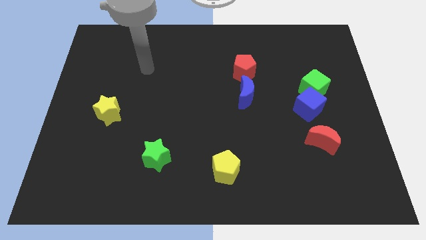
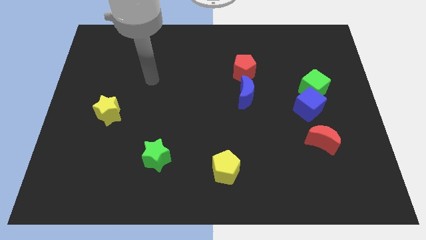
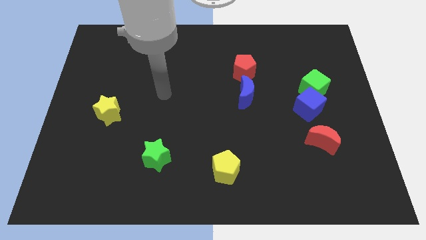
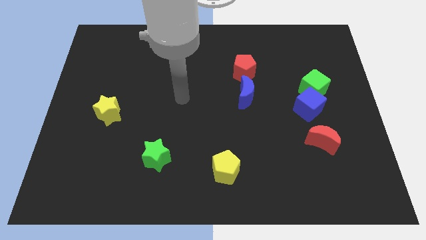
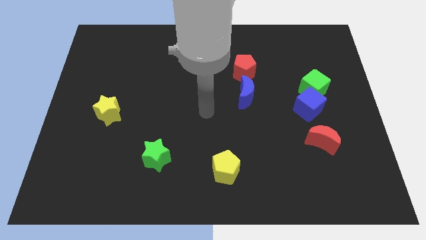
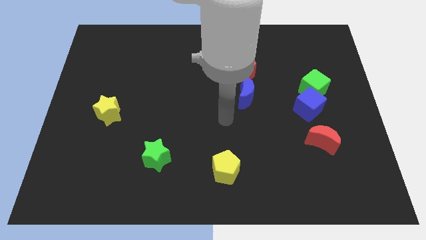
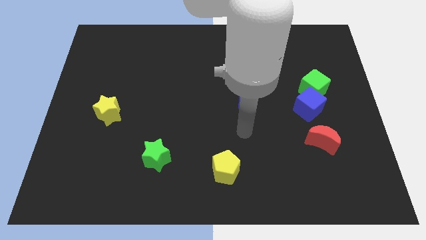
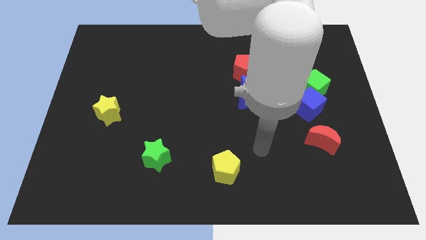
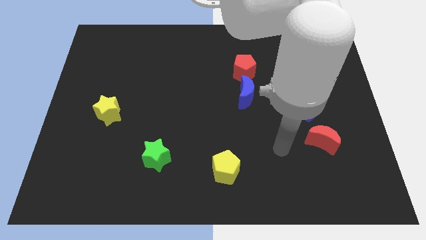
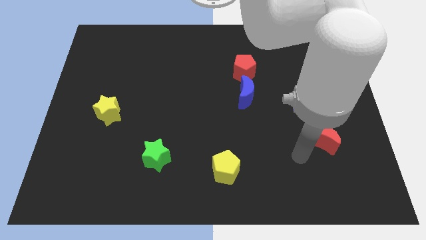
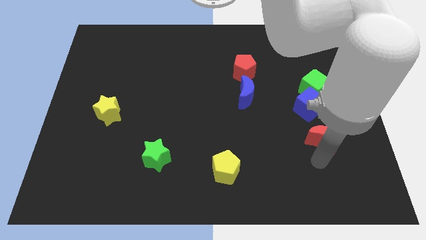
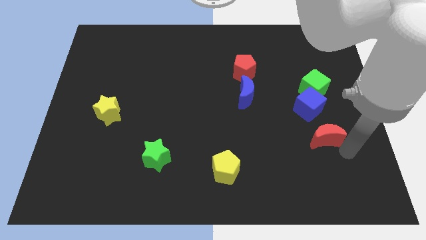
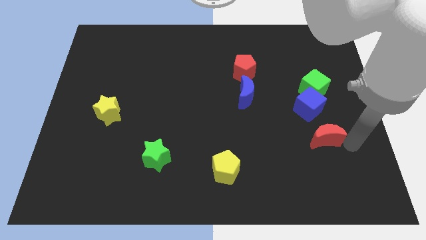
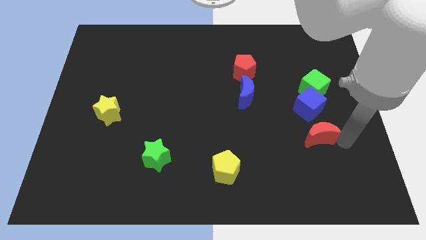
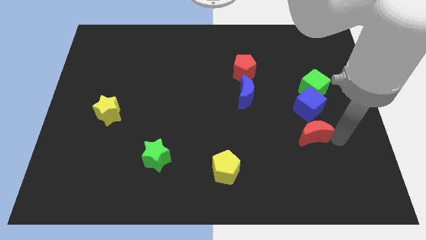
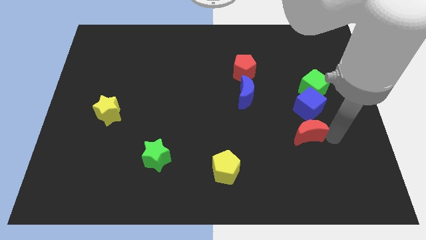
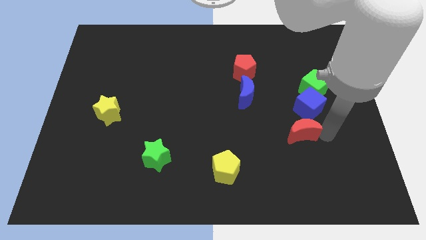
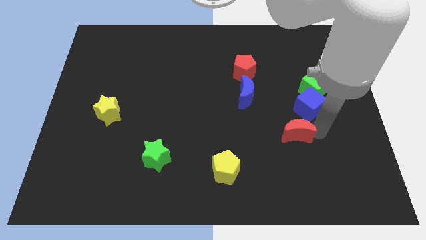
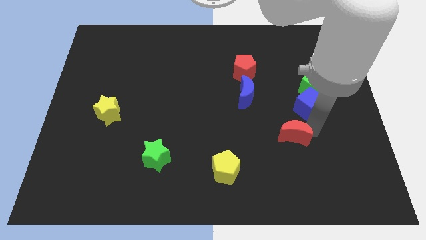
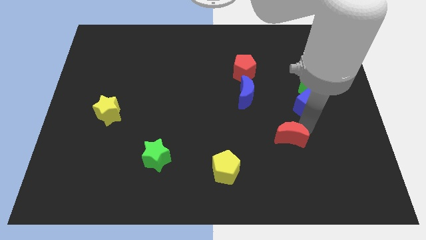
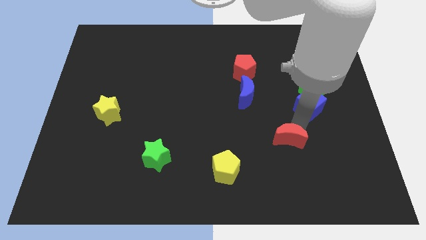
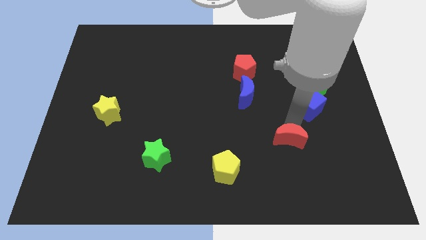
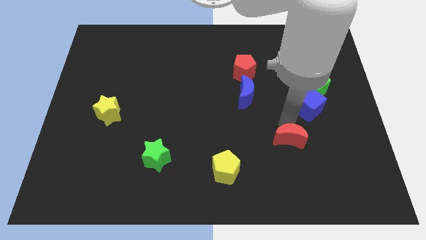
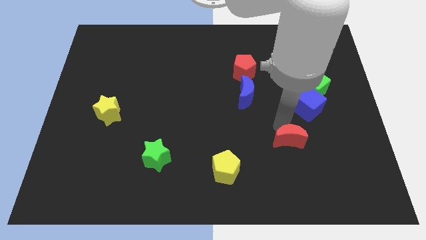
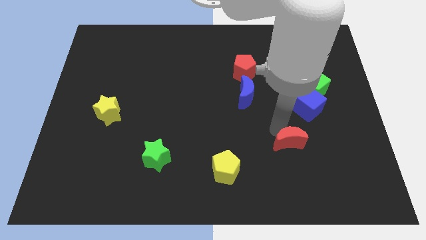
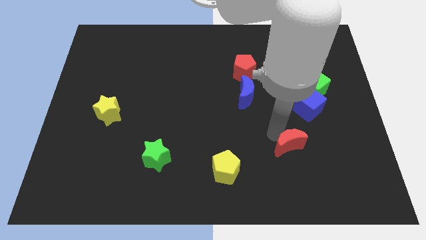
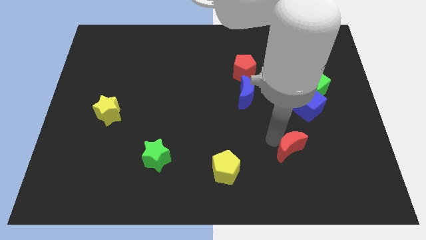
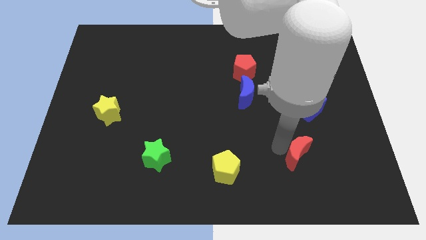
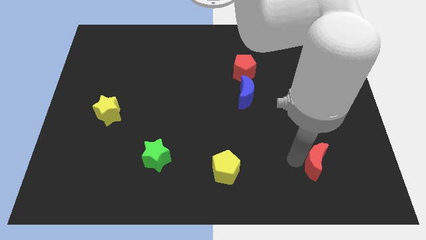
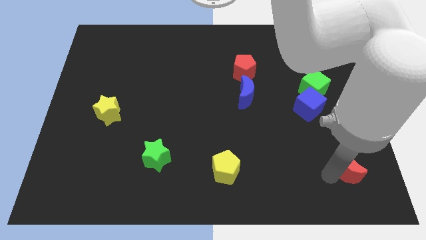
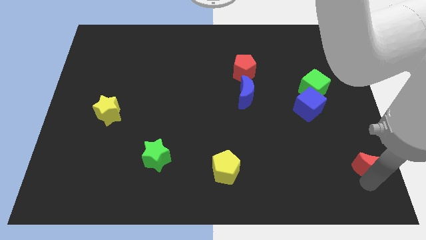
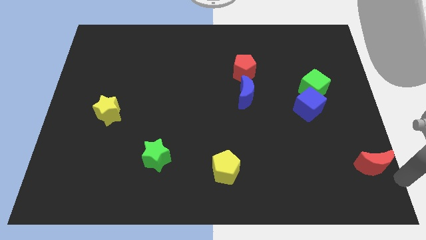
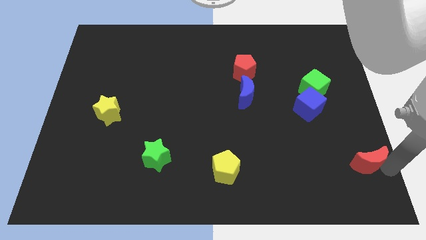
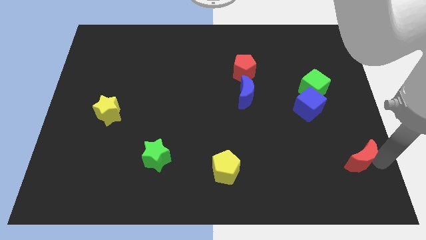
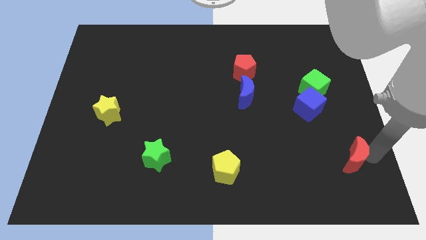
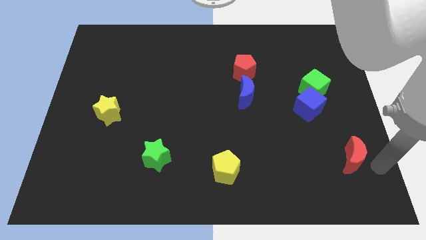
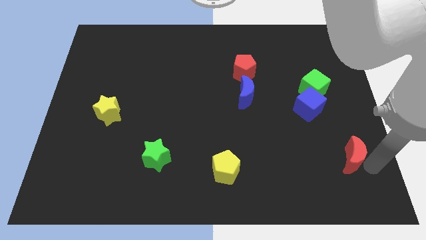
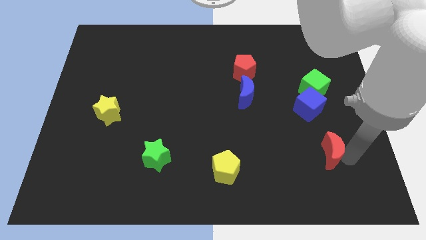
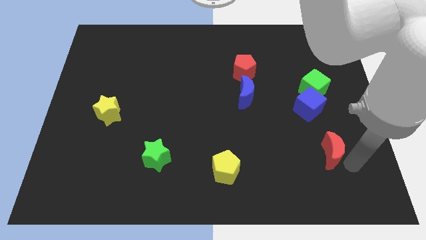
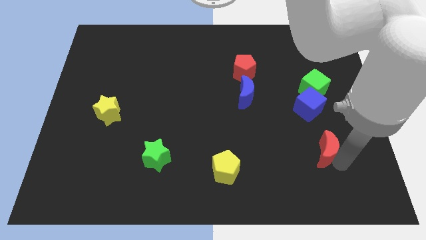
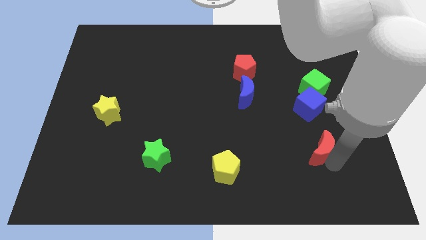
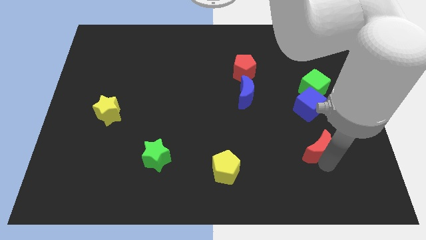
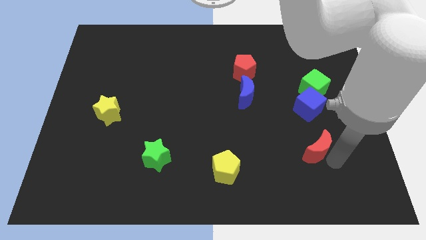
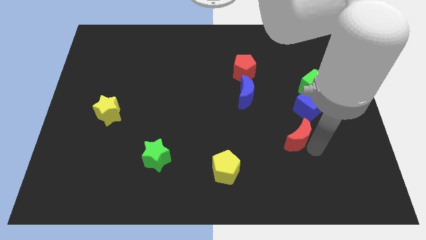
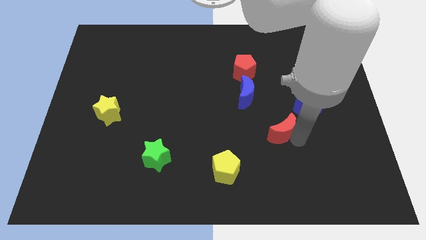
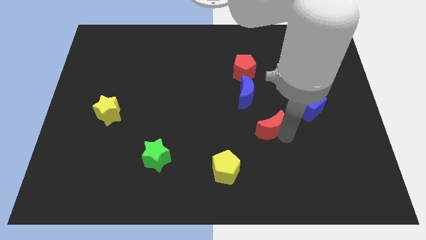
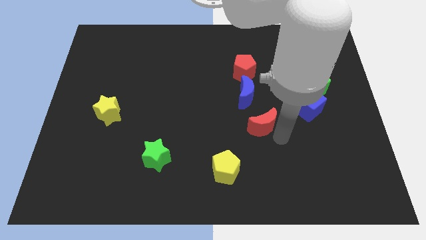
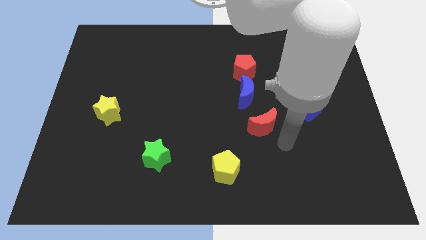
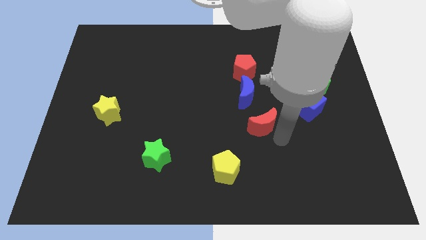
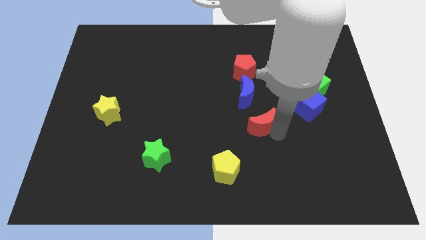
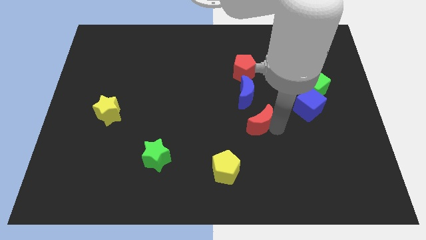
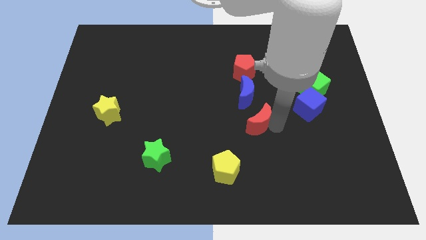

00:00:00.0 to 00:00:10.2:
push the red moon to the center

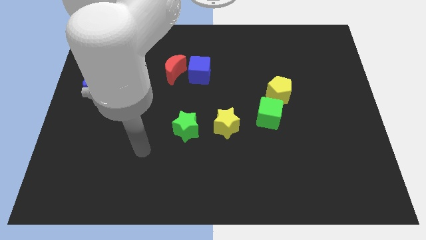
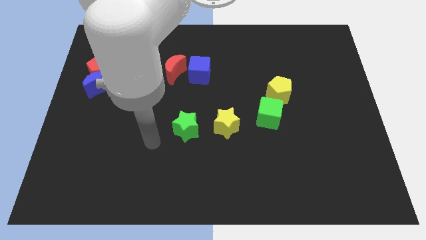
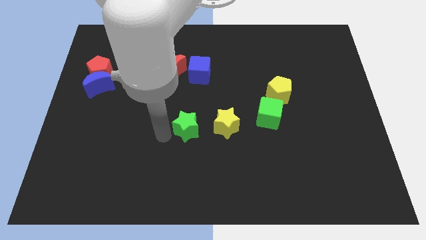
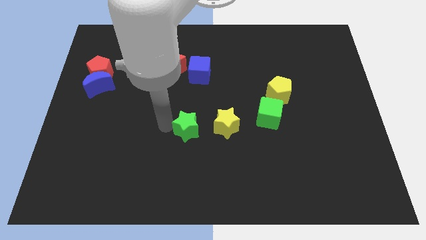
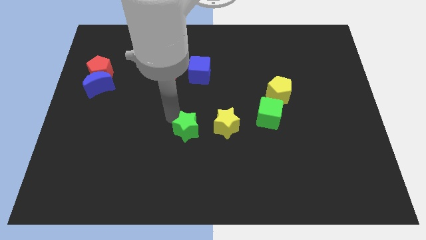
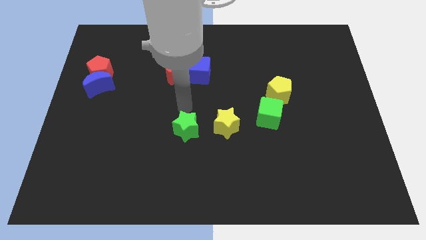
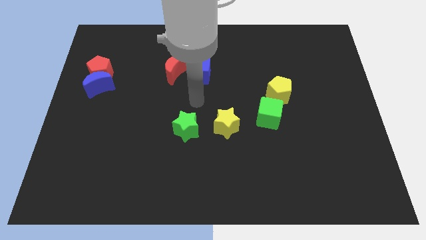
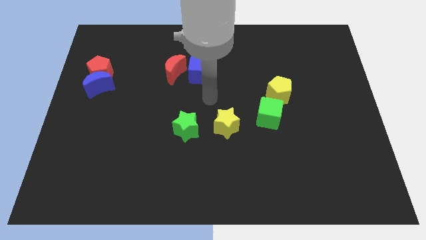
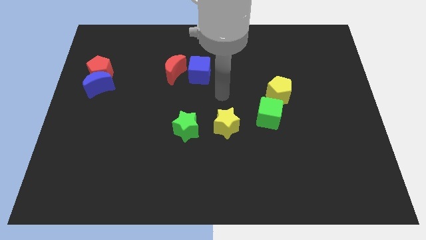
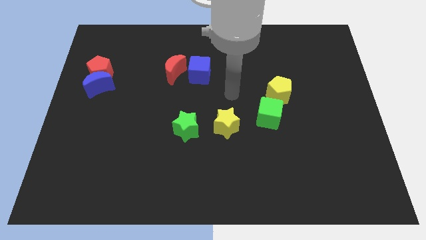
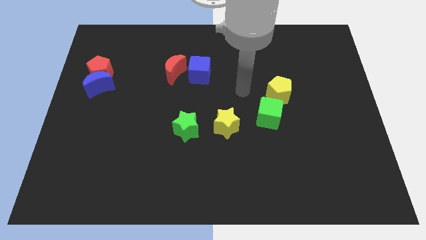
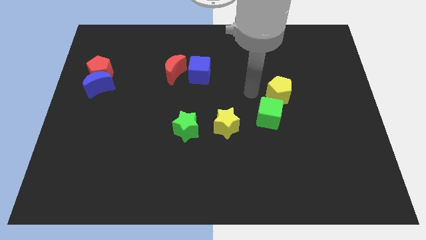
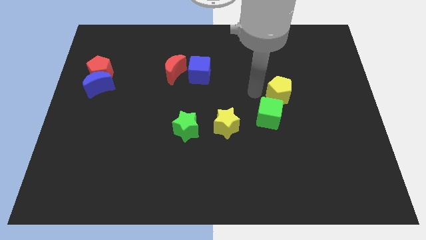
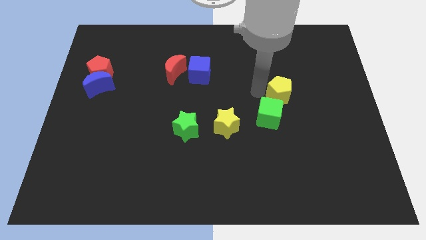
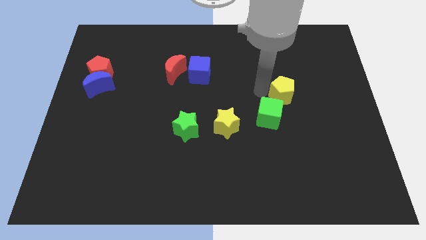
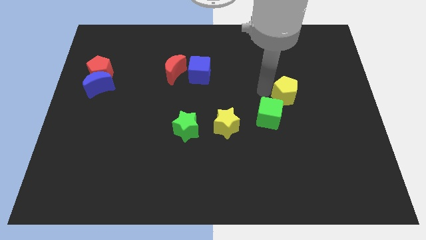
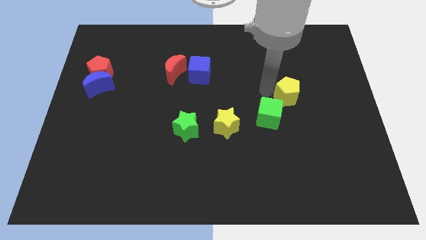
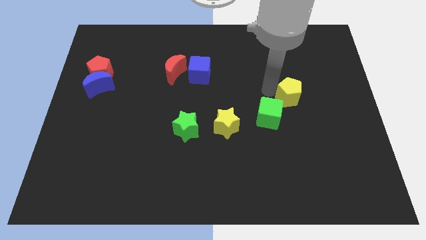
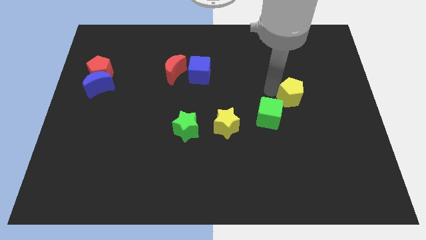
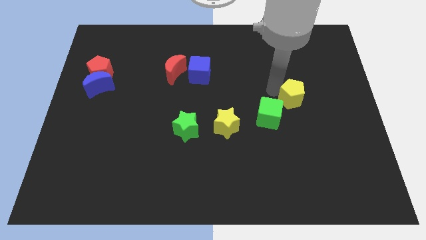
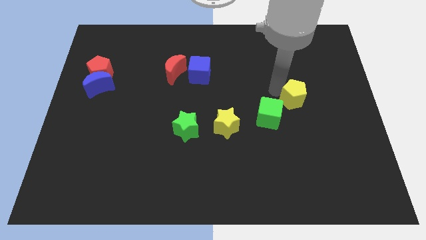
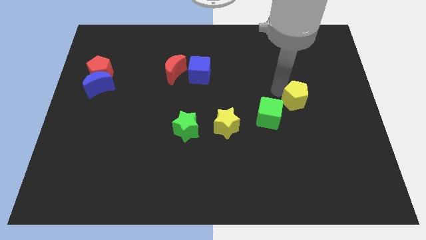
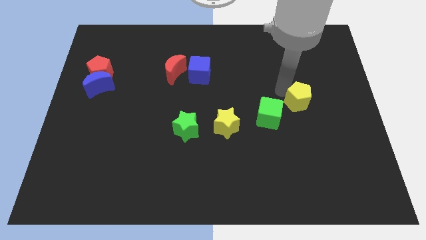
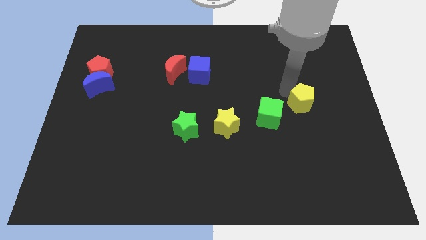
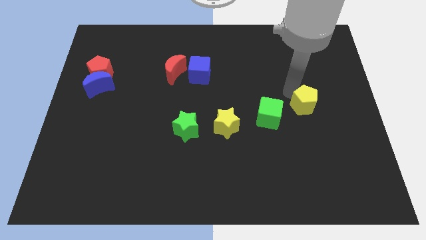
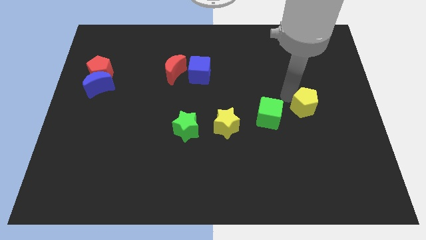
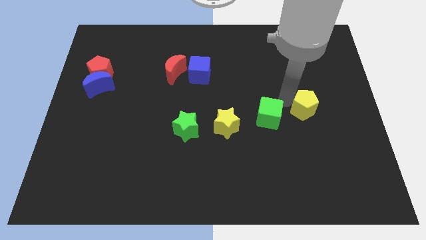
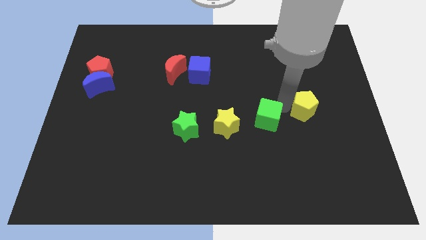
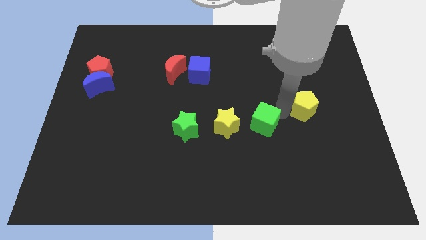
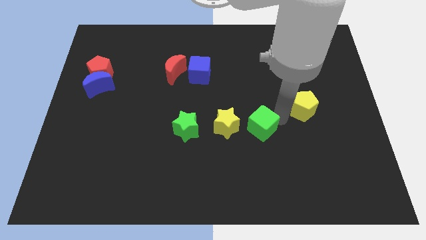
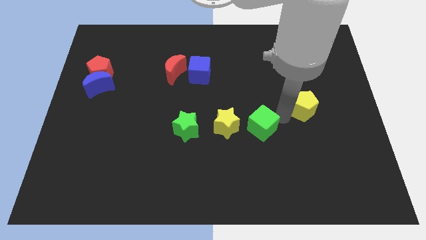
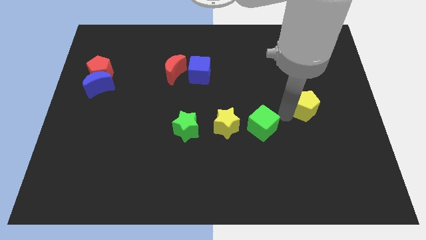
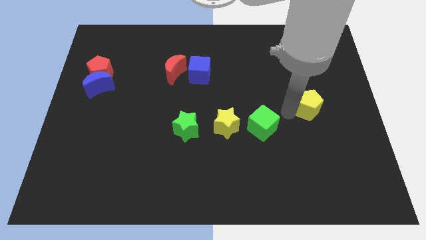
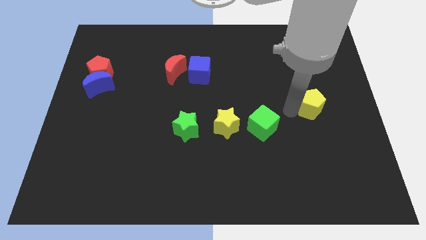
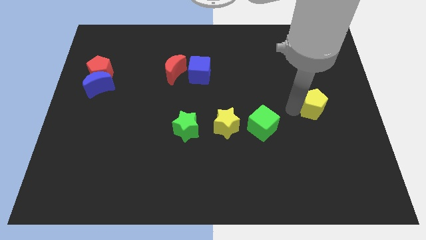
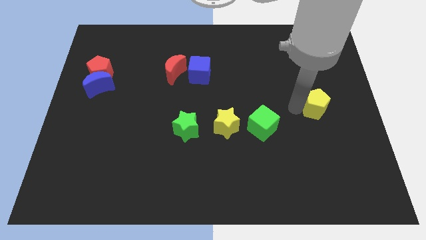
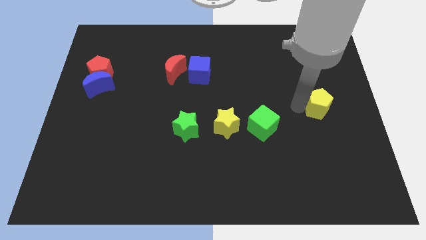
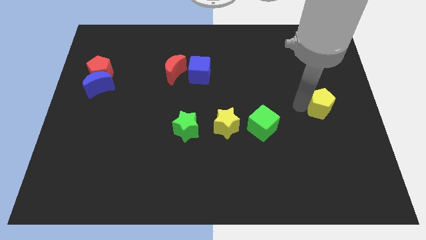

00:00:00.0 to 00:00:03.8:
slide the yellow pentagon to the right side of the board
